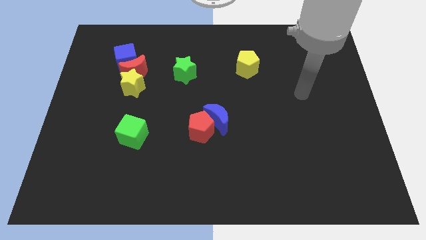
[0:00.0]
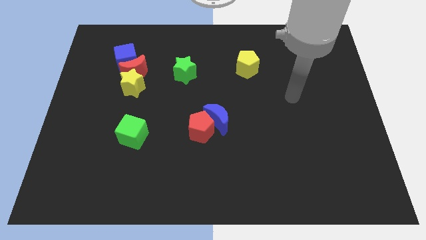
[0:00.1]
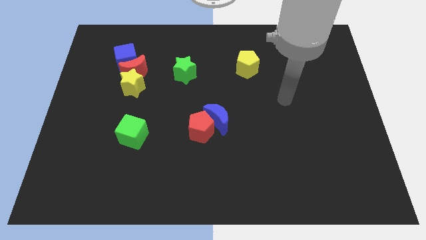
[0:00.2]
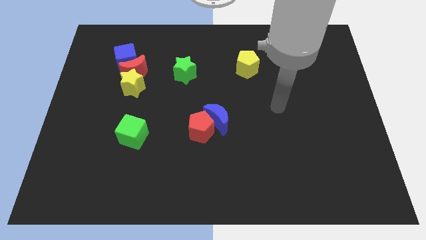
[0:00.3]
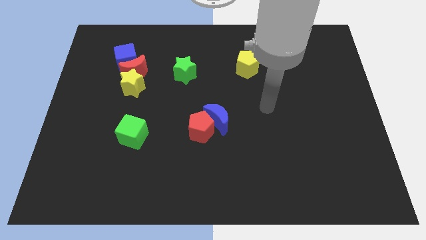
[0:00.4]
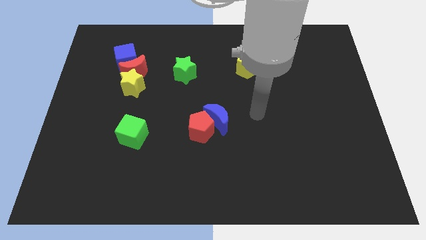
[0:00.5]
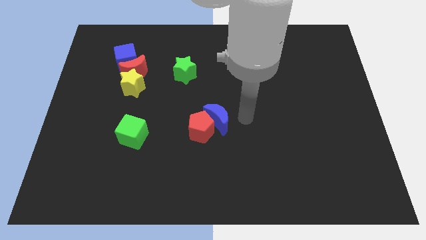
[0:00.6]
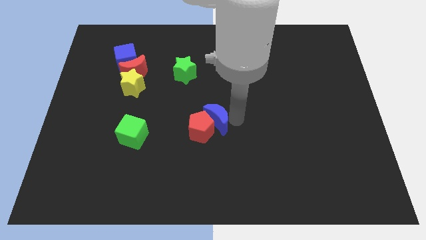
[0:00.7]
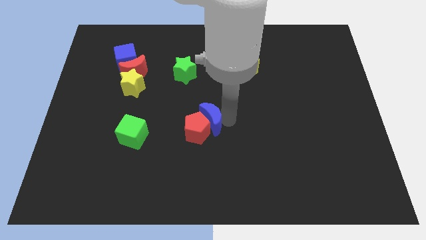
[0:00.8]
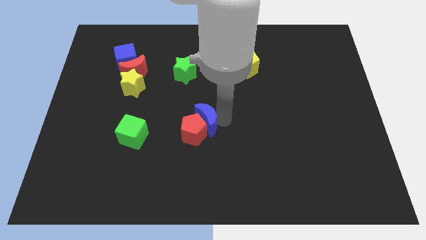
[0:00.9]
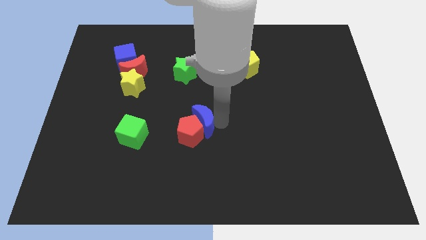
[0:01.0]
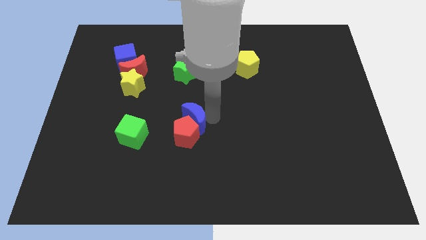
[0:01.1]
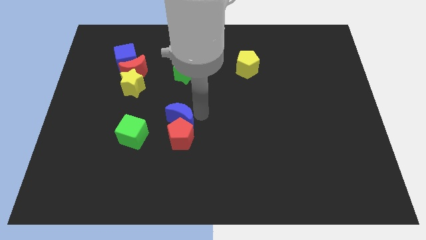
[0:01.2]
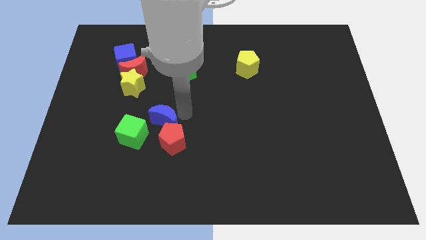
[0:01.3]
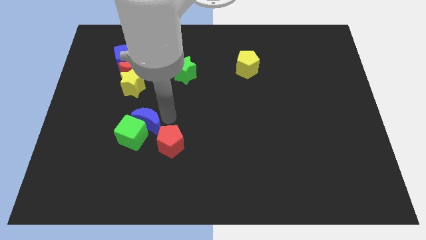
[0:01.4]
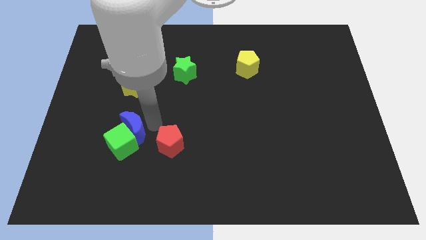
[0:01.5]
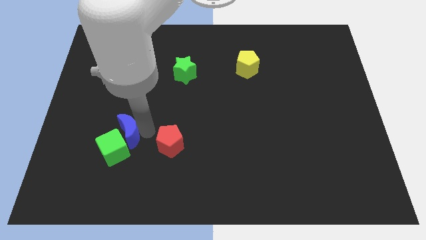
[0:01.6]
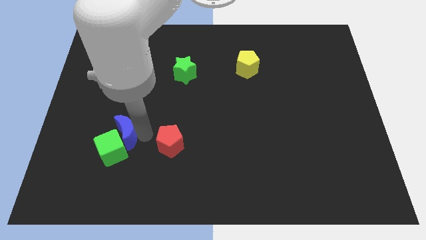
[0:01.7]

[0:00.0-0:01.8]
separate the red pentagon from the blue moon

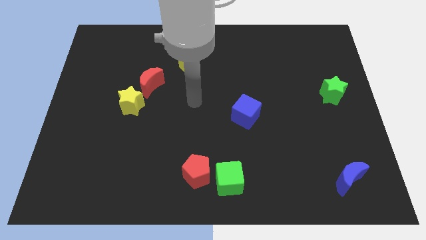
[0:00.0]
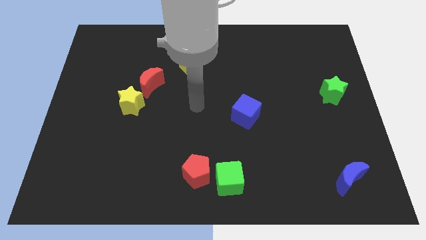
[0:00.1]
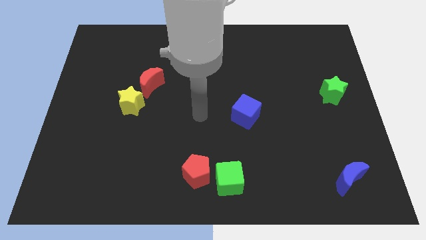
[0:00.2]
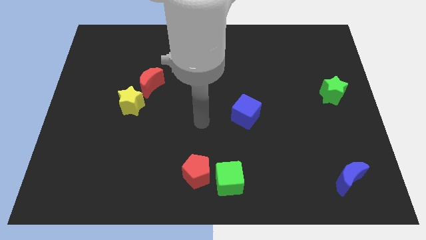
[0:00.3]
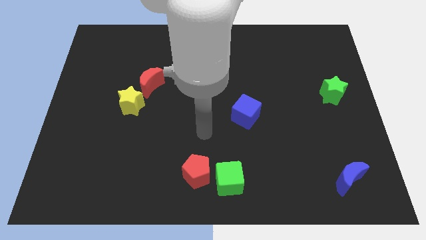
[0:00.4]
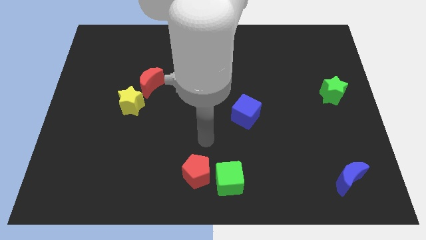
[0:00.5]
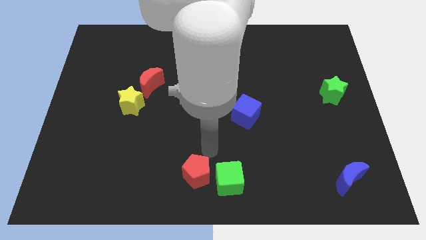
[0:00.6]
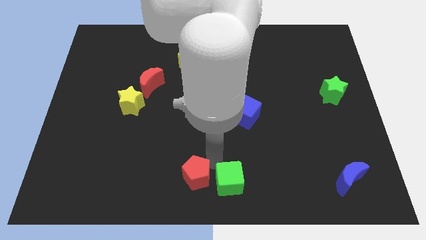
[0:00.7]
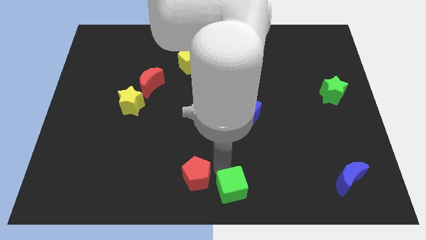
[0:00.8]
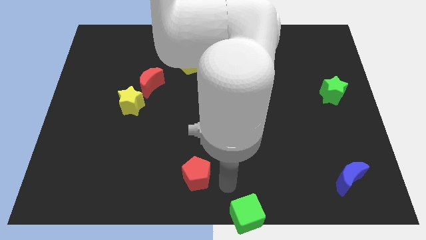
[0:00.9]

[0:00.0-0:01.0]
separate the red pentagon from the green cube

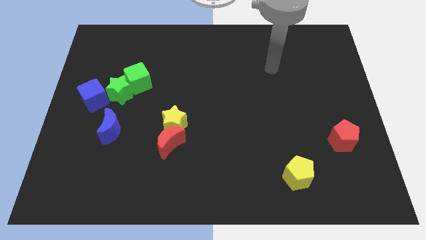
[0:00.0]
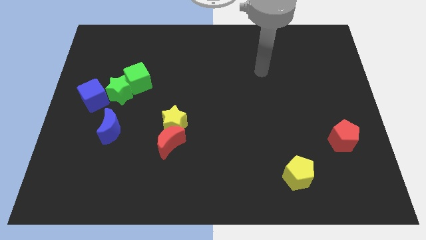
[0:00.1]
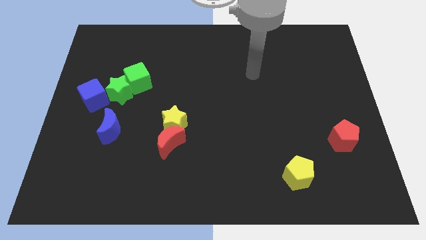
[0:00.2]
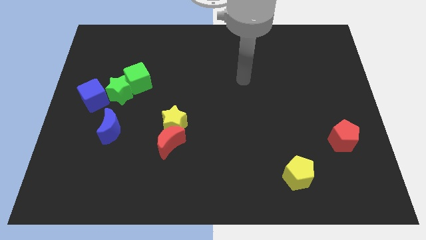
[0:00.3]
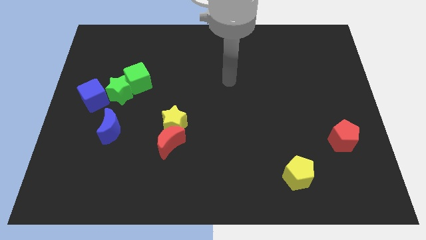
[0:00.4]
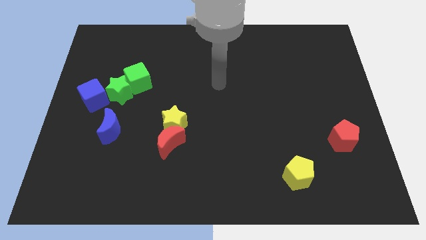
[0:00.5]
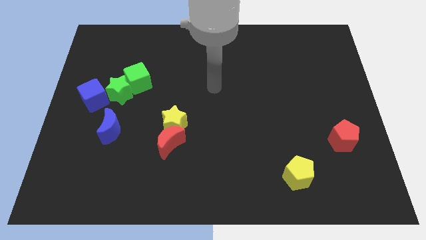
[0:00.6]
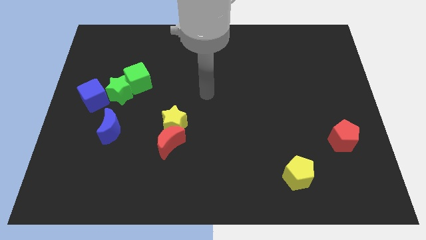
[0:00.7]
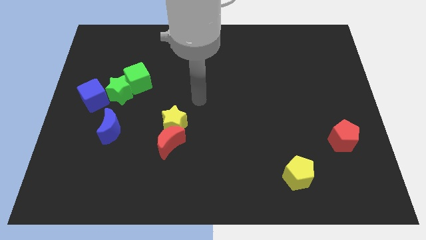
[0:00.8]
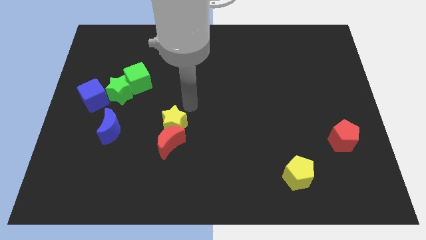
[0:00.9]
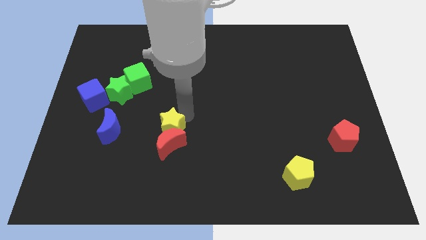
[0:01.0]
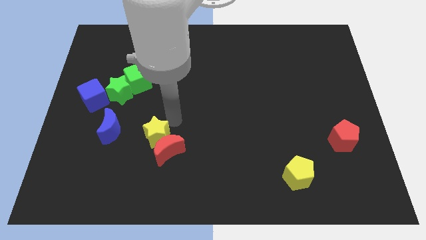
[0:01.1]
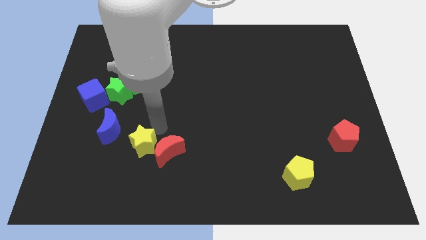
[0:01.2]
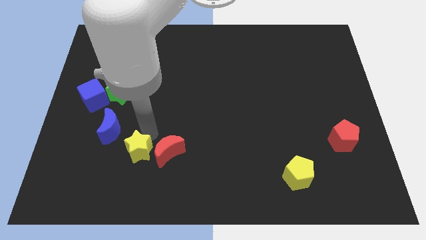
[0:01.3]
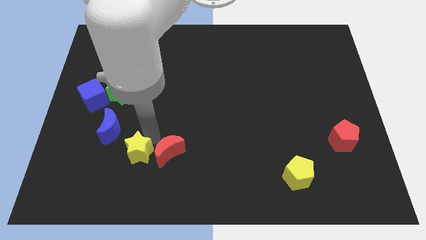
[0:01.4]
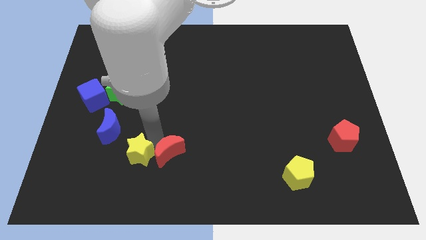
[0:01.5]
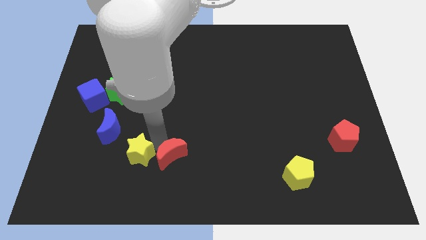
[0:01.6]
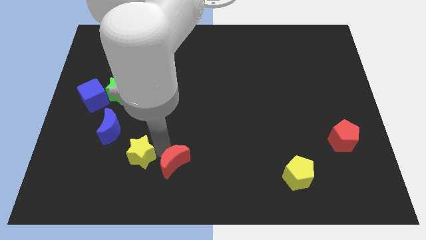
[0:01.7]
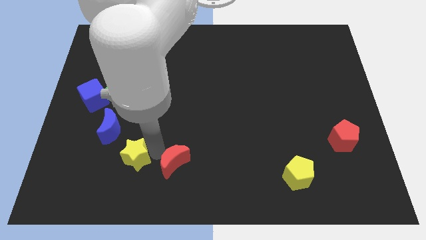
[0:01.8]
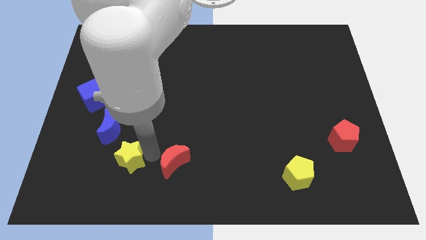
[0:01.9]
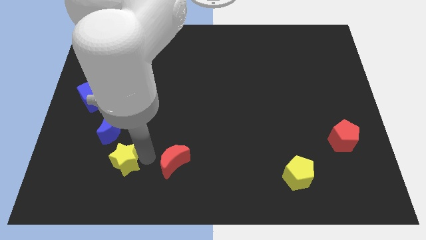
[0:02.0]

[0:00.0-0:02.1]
pull the red moon apart from the yellow star

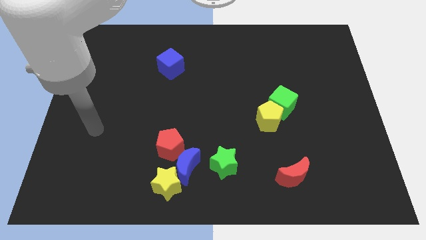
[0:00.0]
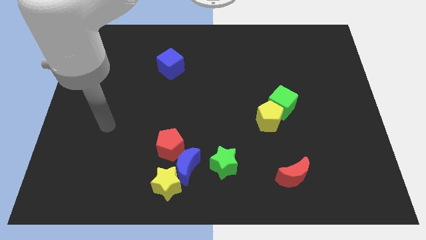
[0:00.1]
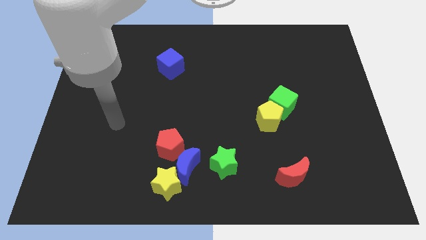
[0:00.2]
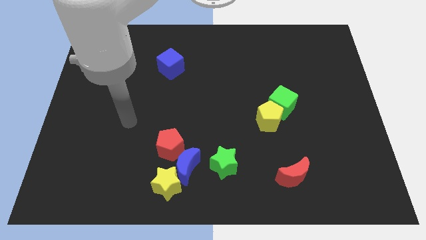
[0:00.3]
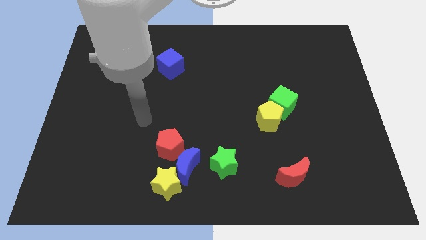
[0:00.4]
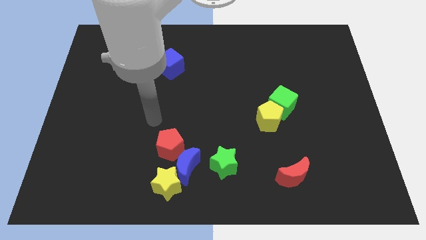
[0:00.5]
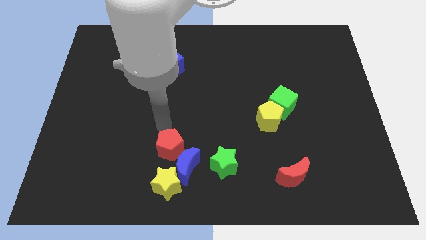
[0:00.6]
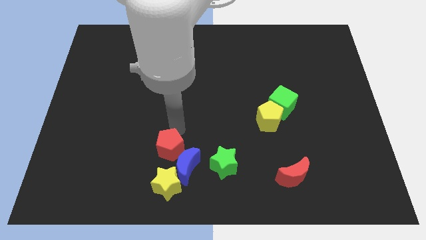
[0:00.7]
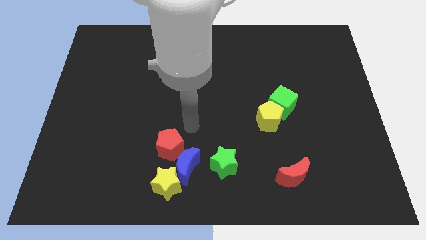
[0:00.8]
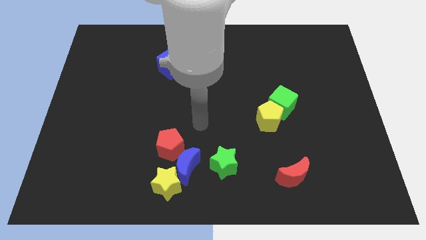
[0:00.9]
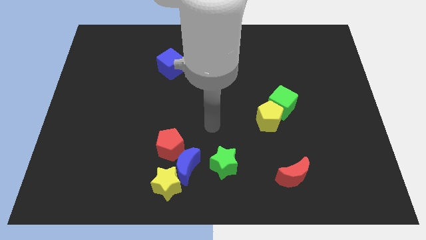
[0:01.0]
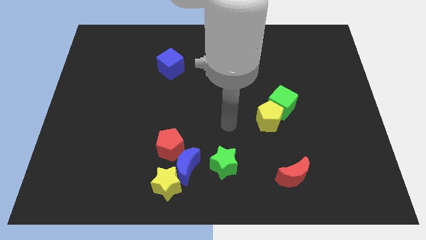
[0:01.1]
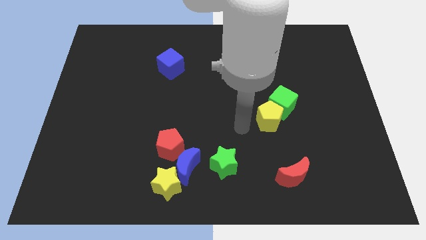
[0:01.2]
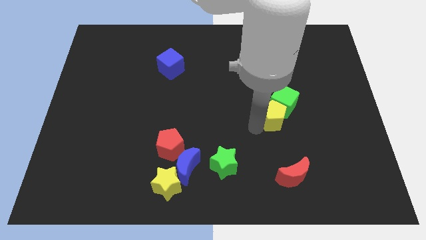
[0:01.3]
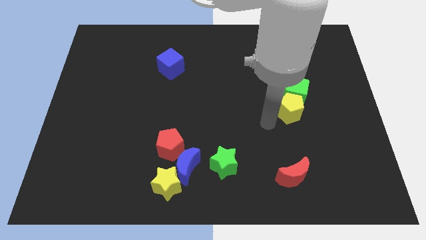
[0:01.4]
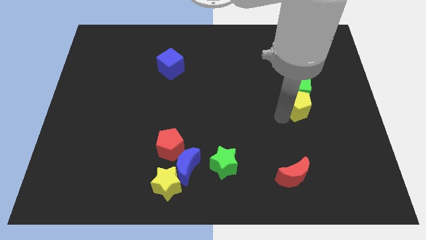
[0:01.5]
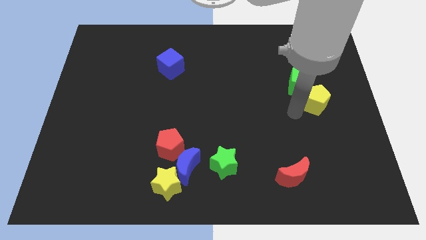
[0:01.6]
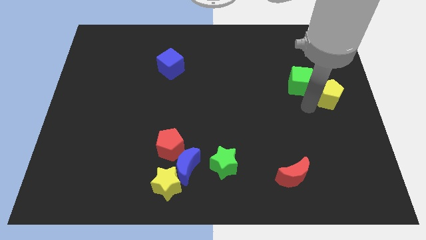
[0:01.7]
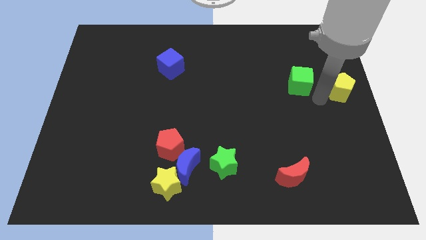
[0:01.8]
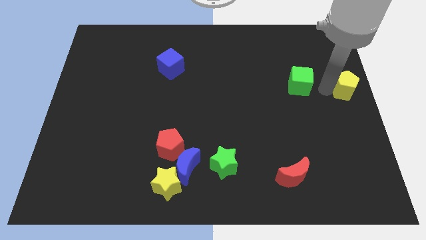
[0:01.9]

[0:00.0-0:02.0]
separate the green cube from the yellow pentagon

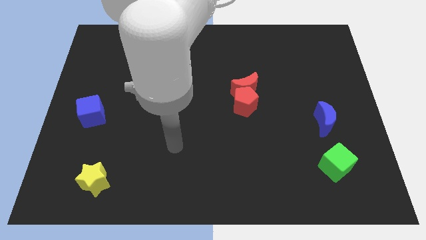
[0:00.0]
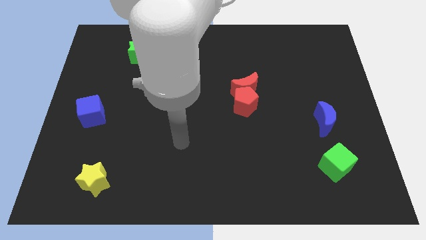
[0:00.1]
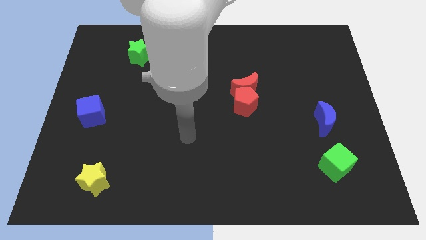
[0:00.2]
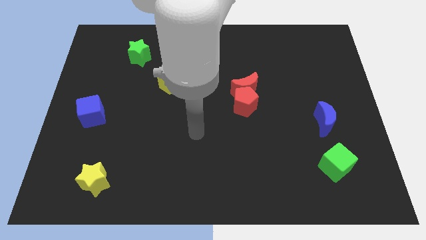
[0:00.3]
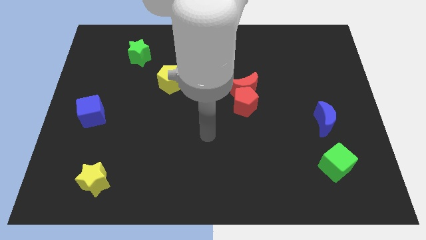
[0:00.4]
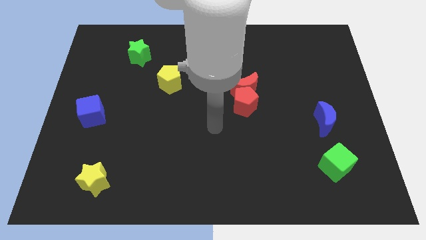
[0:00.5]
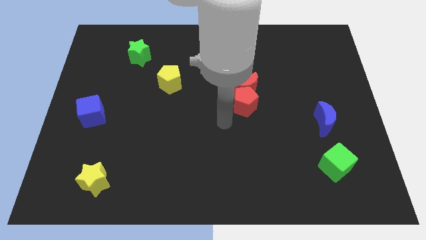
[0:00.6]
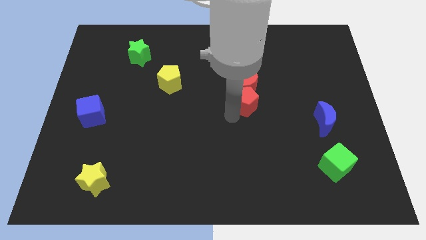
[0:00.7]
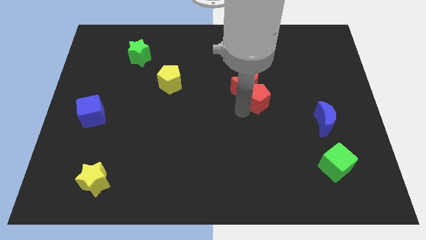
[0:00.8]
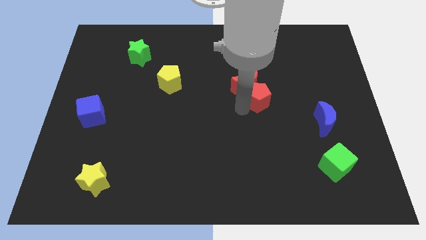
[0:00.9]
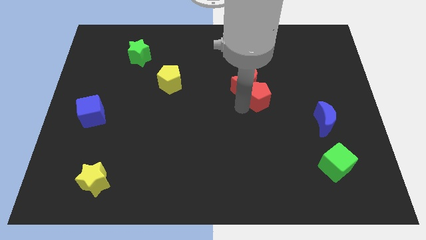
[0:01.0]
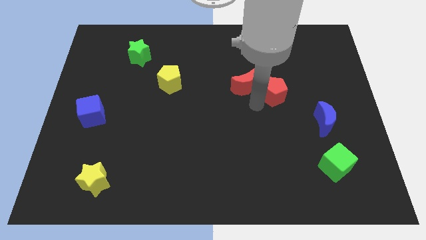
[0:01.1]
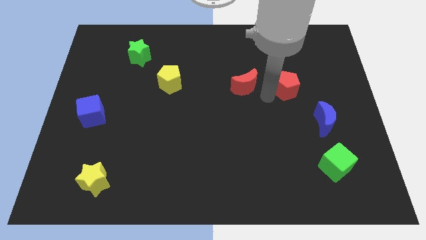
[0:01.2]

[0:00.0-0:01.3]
separate the red moon from the red pentagon

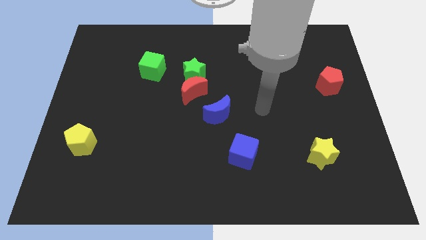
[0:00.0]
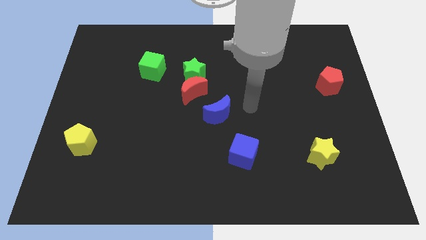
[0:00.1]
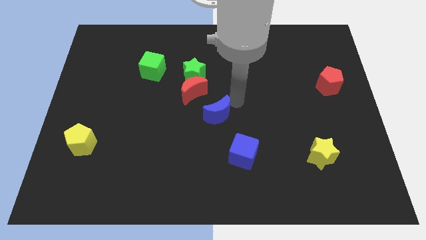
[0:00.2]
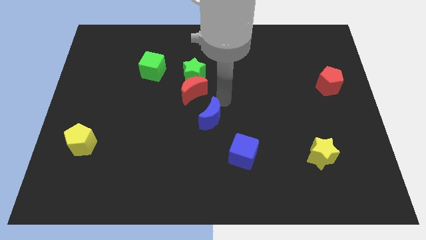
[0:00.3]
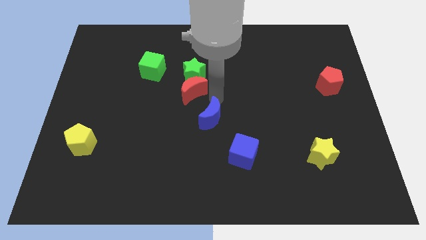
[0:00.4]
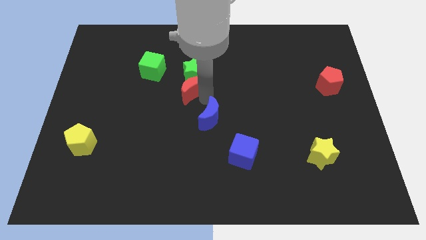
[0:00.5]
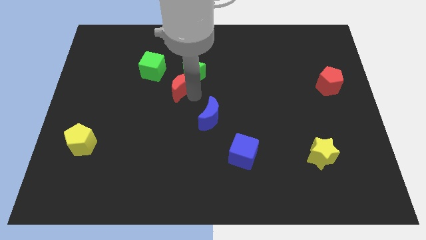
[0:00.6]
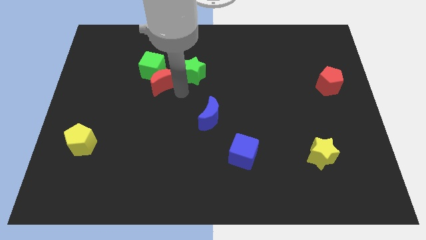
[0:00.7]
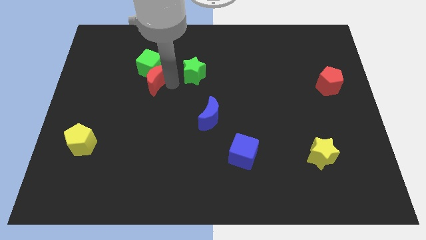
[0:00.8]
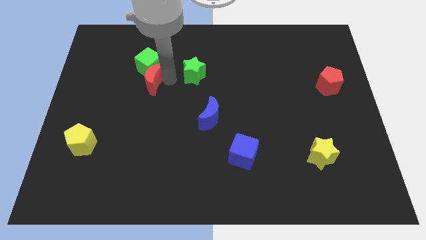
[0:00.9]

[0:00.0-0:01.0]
separate the green star from the red moon

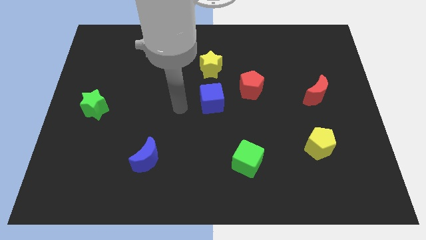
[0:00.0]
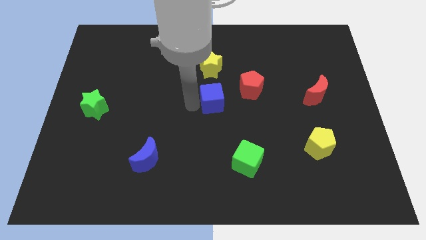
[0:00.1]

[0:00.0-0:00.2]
separate the red pentagon from the blue cube
